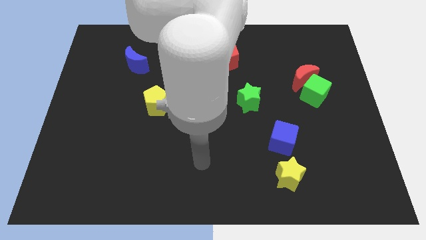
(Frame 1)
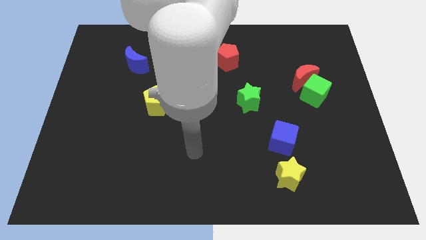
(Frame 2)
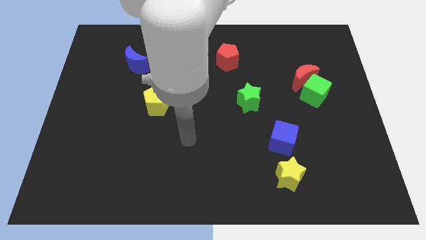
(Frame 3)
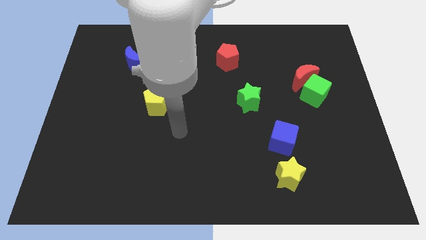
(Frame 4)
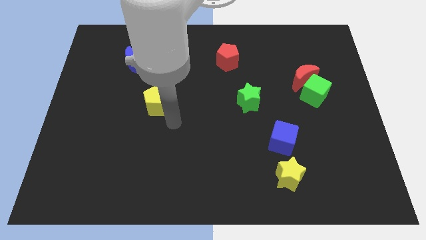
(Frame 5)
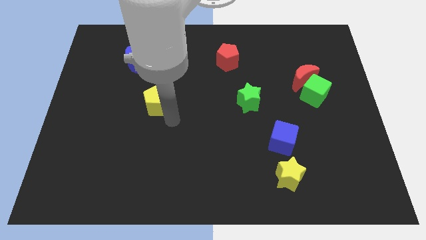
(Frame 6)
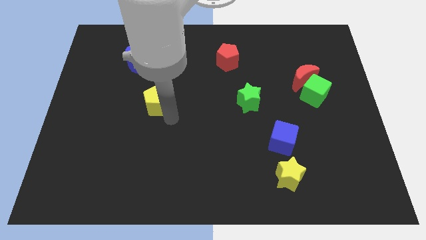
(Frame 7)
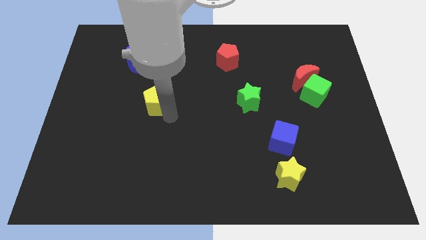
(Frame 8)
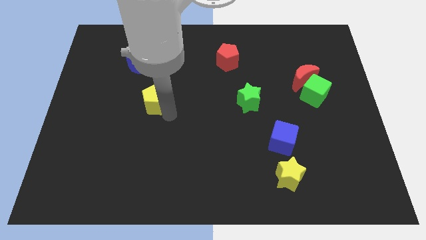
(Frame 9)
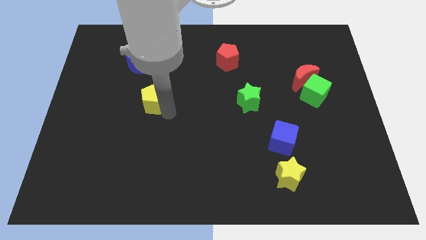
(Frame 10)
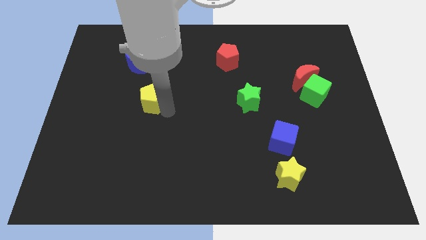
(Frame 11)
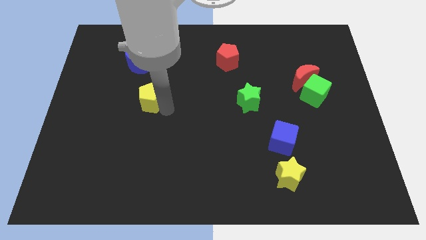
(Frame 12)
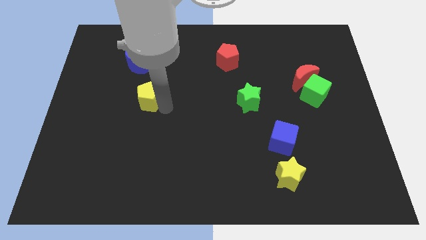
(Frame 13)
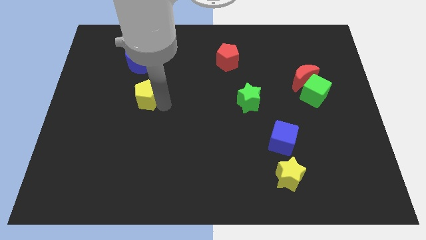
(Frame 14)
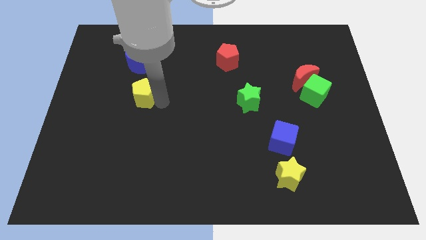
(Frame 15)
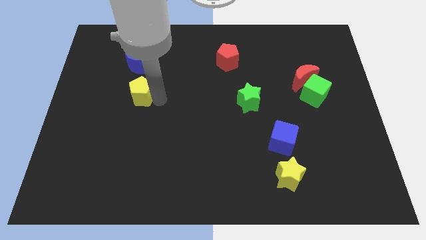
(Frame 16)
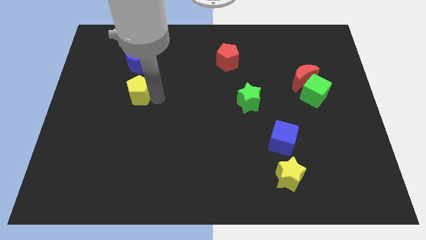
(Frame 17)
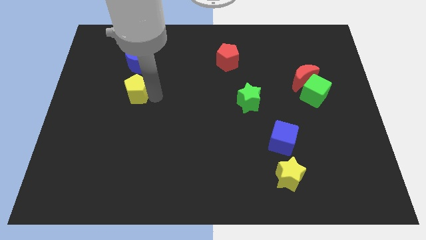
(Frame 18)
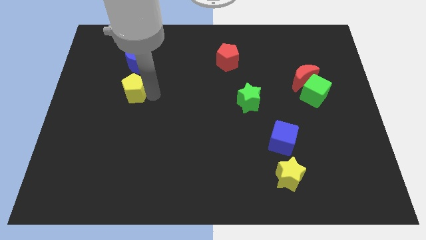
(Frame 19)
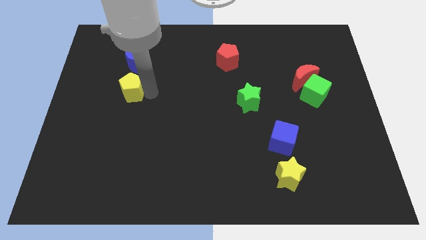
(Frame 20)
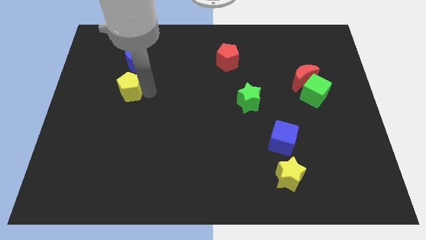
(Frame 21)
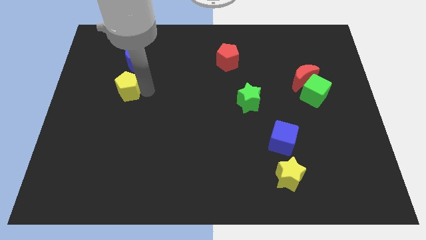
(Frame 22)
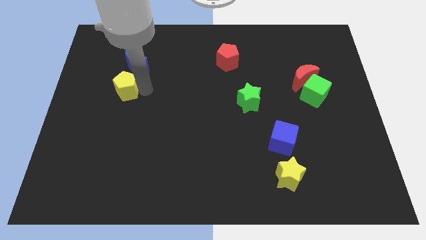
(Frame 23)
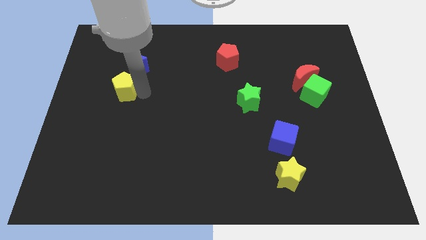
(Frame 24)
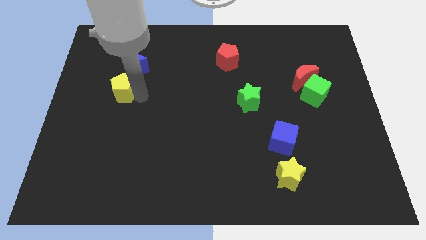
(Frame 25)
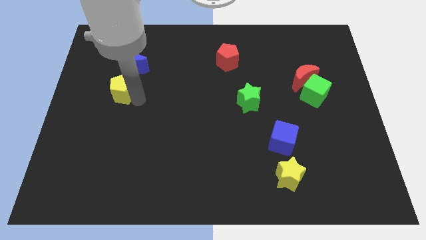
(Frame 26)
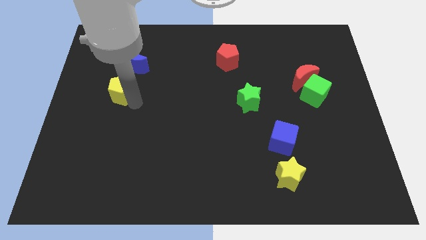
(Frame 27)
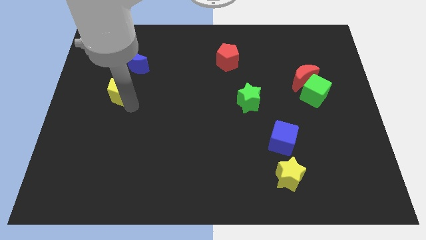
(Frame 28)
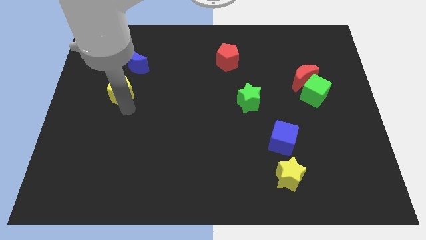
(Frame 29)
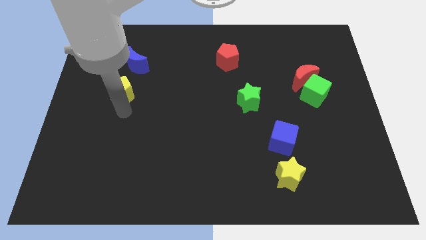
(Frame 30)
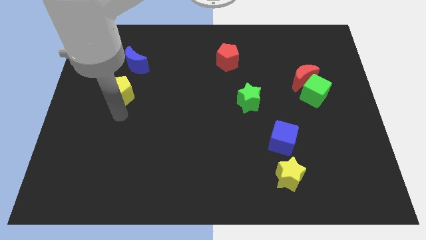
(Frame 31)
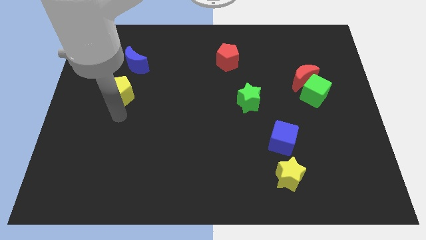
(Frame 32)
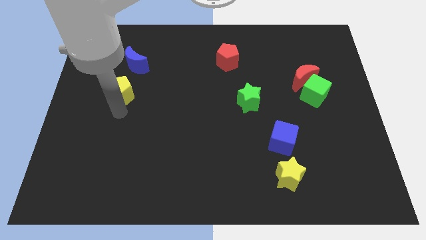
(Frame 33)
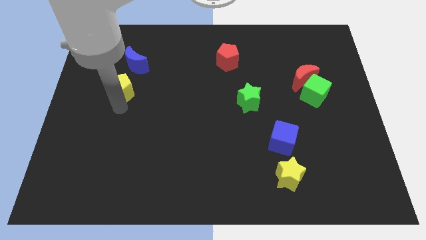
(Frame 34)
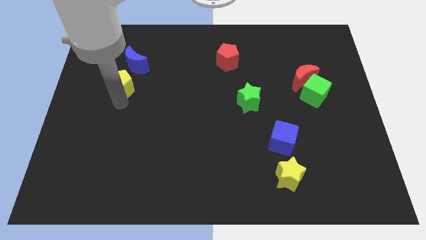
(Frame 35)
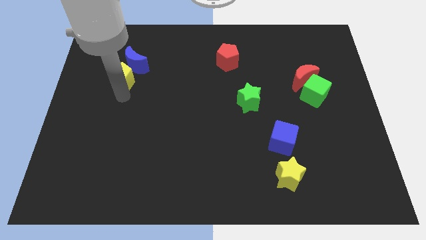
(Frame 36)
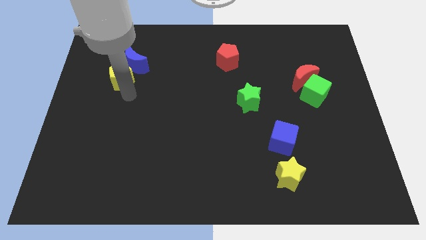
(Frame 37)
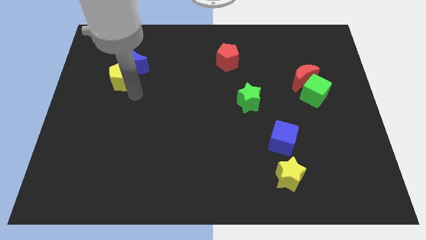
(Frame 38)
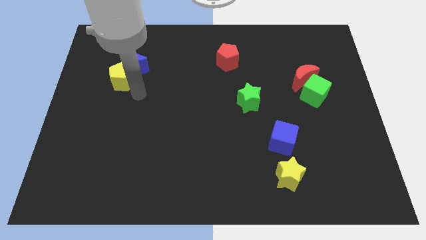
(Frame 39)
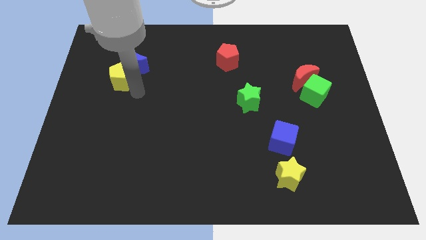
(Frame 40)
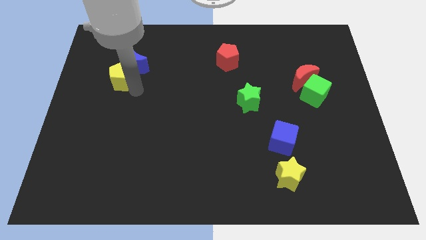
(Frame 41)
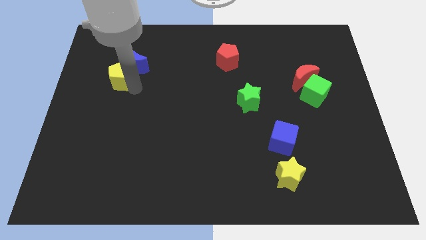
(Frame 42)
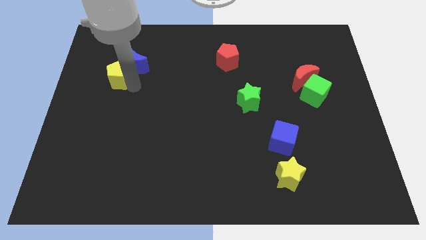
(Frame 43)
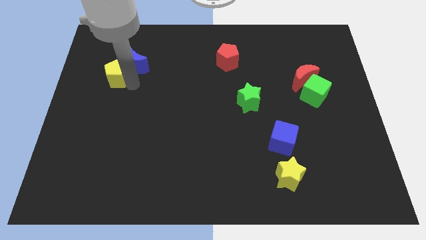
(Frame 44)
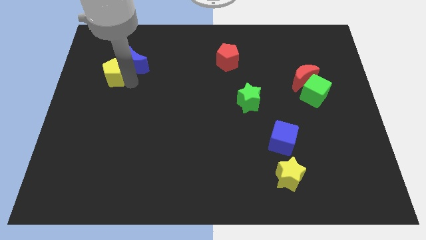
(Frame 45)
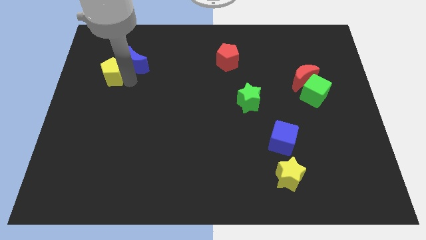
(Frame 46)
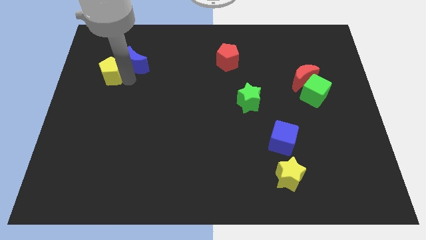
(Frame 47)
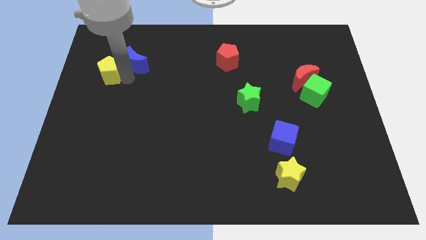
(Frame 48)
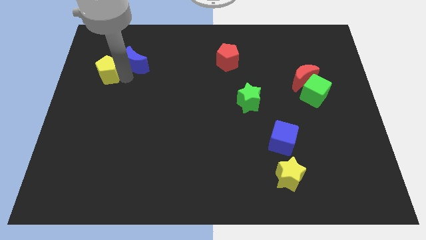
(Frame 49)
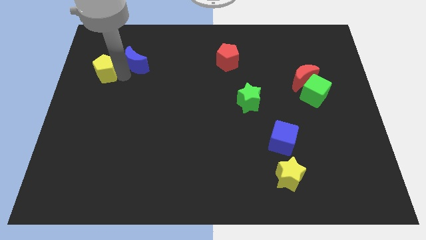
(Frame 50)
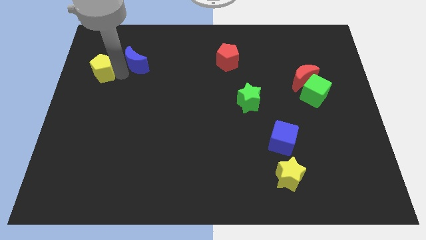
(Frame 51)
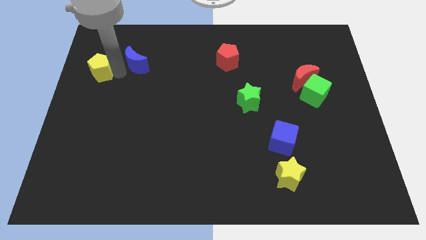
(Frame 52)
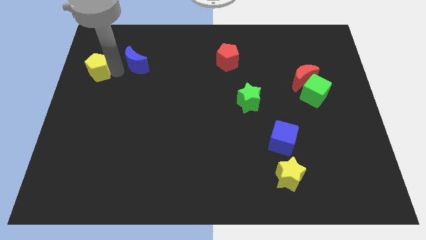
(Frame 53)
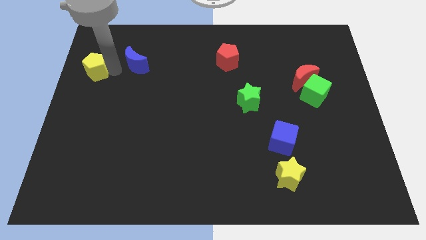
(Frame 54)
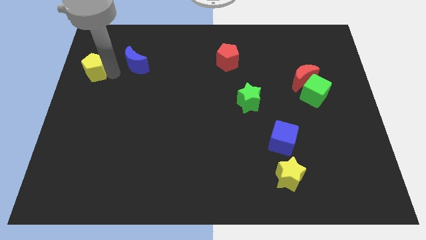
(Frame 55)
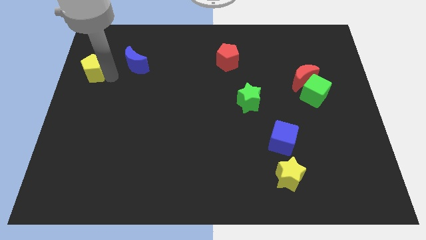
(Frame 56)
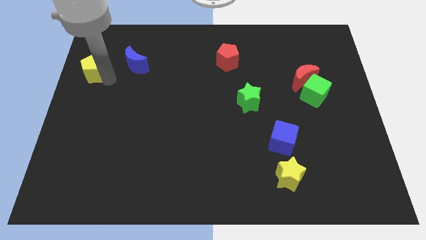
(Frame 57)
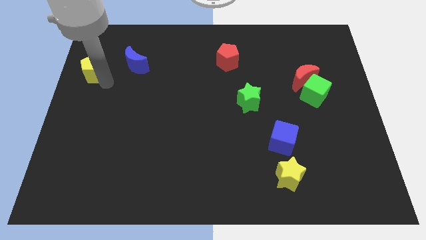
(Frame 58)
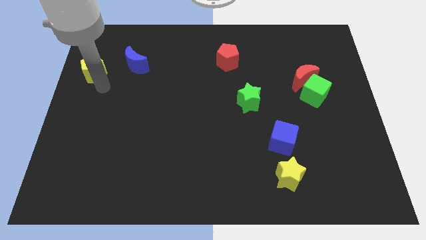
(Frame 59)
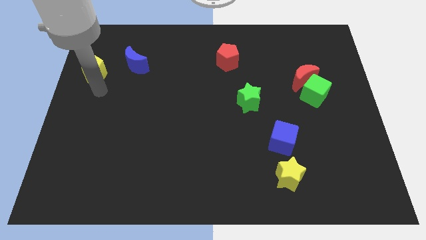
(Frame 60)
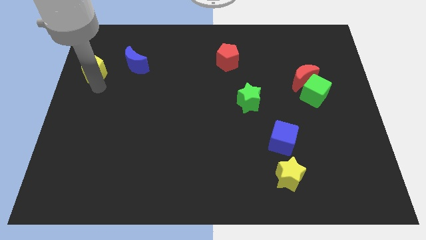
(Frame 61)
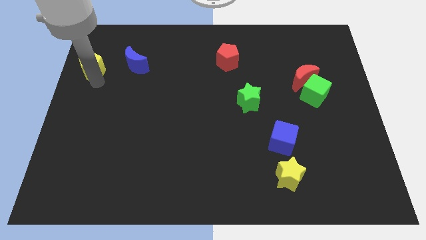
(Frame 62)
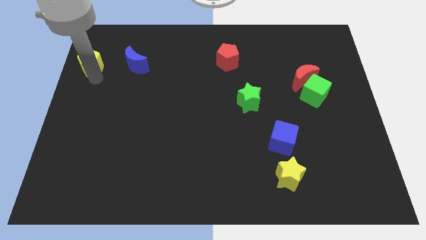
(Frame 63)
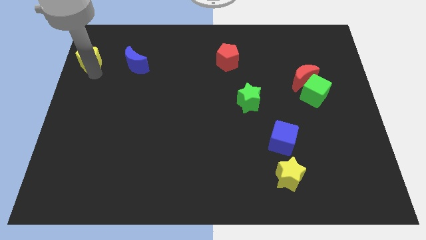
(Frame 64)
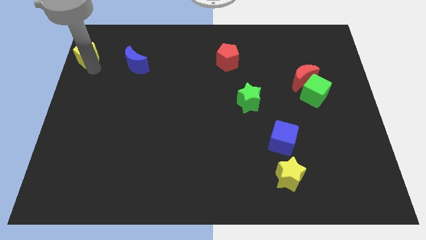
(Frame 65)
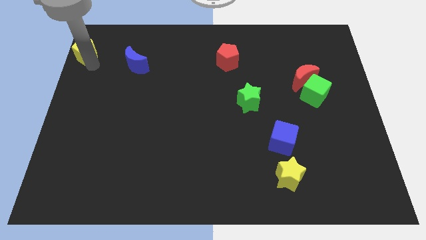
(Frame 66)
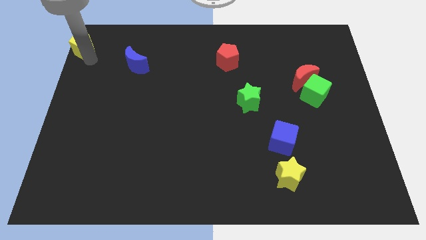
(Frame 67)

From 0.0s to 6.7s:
slide the yellow pentagon to the top left corner
